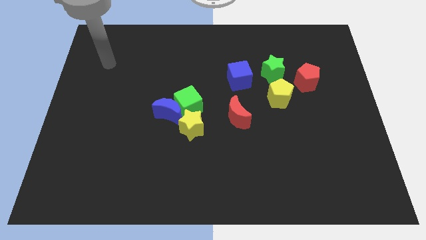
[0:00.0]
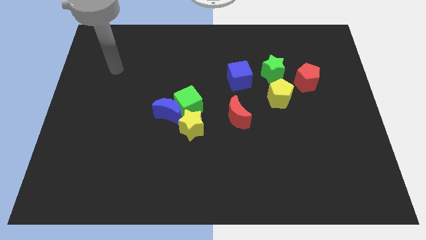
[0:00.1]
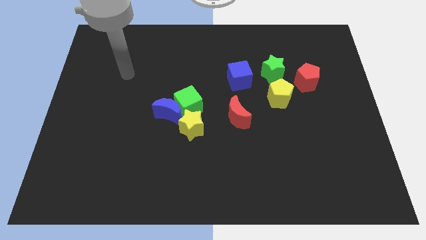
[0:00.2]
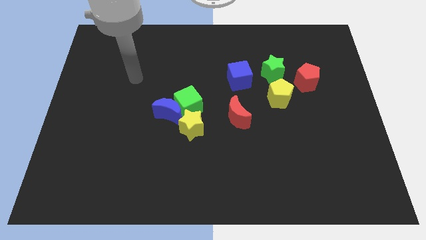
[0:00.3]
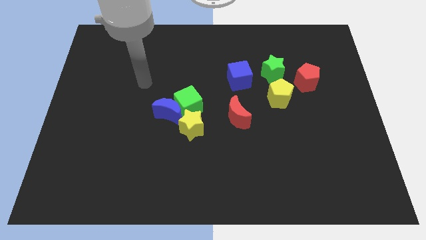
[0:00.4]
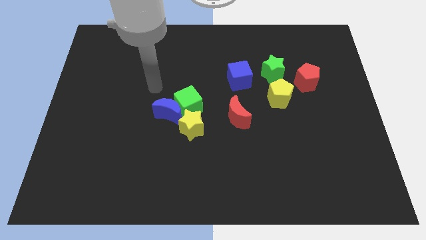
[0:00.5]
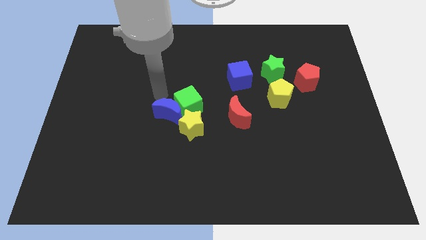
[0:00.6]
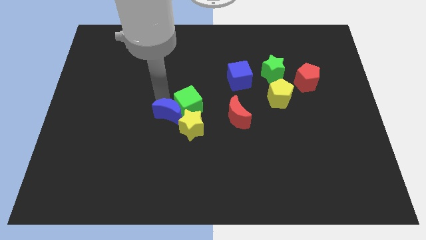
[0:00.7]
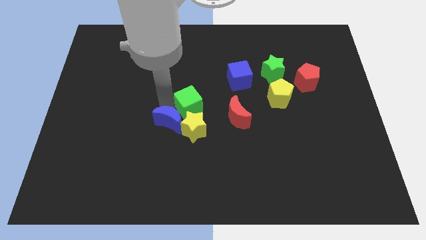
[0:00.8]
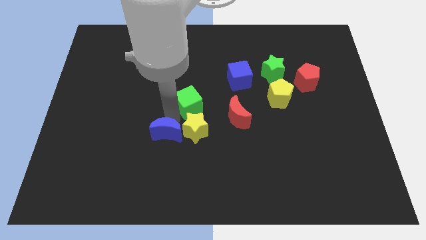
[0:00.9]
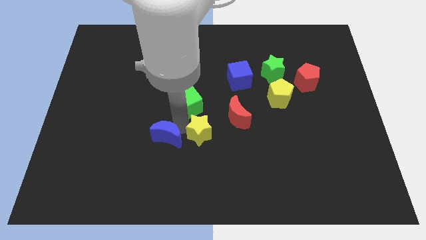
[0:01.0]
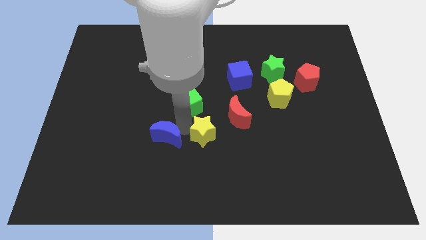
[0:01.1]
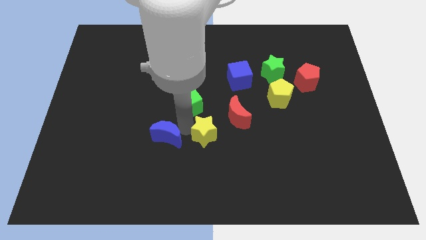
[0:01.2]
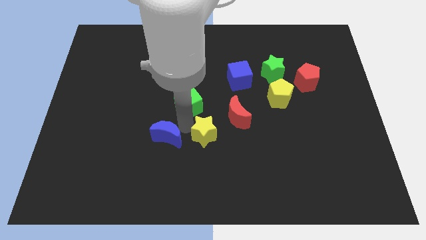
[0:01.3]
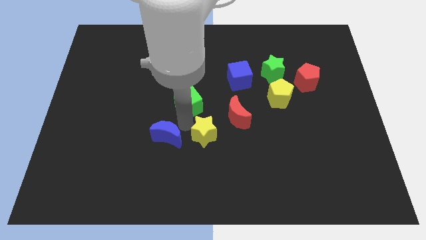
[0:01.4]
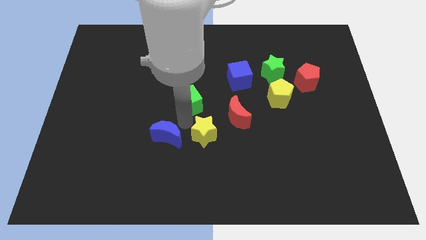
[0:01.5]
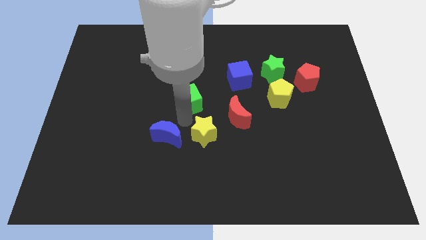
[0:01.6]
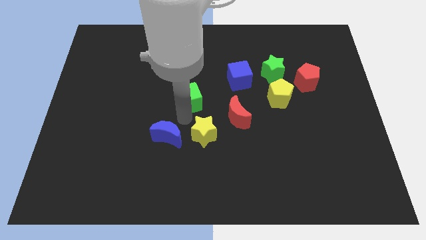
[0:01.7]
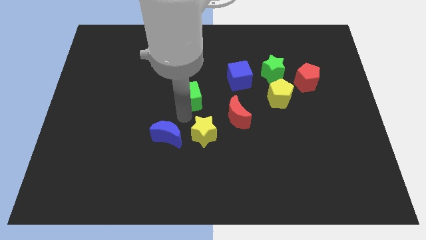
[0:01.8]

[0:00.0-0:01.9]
separate the green cube from the blue moon and yellow star

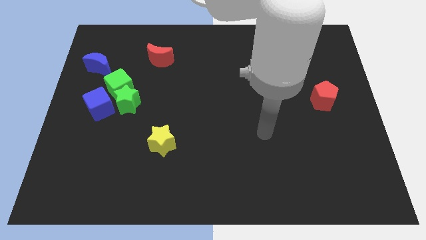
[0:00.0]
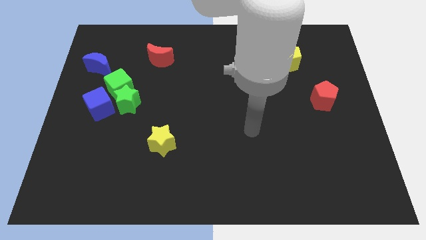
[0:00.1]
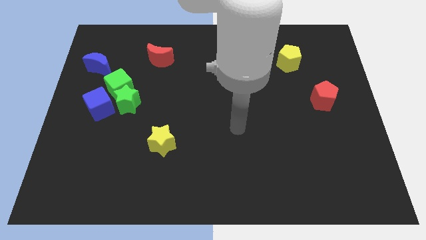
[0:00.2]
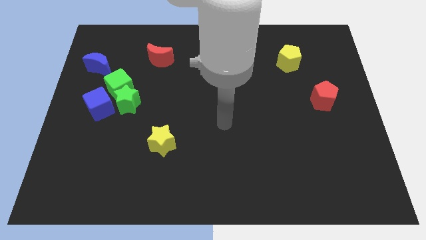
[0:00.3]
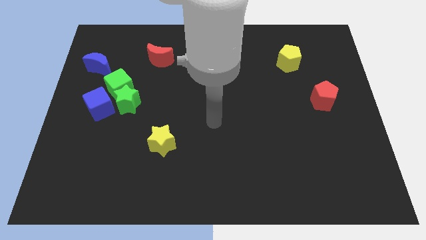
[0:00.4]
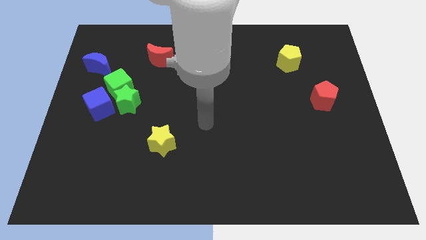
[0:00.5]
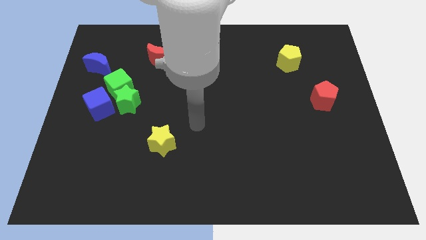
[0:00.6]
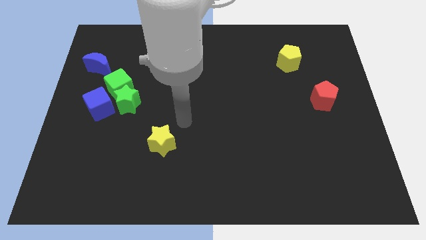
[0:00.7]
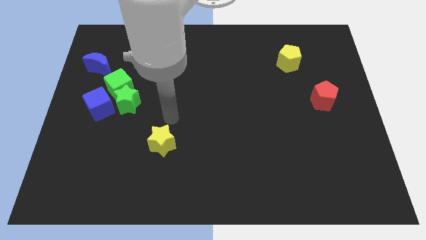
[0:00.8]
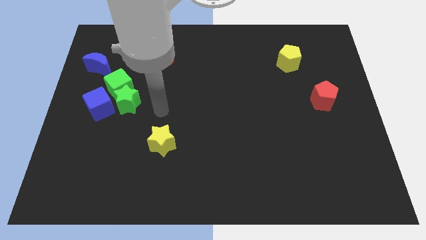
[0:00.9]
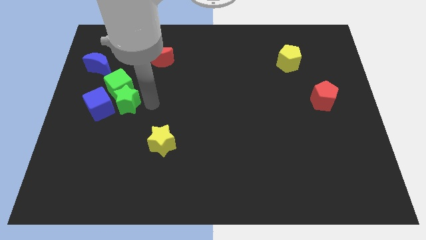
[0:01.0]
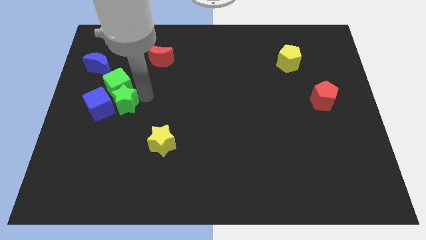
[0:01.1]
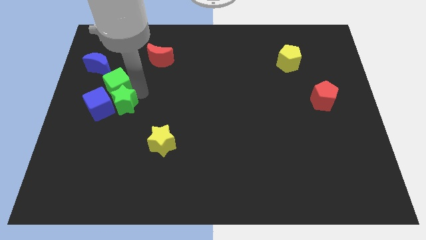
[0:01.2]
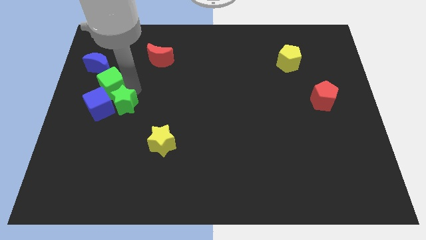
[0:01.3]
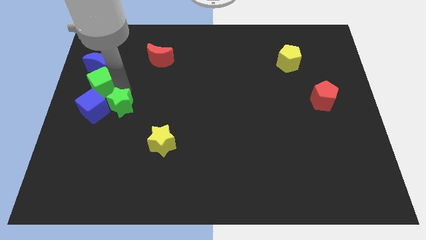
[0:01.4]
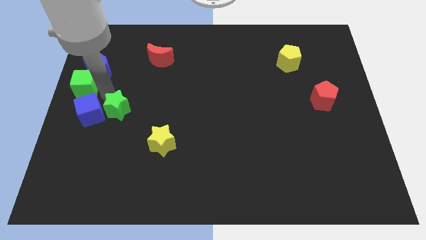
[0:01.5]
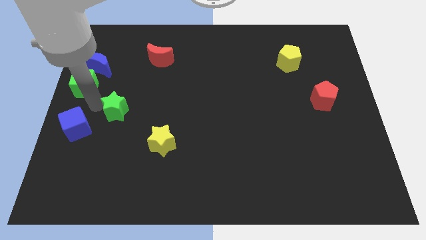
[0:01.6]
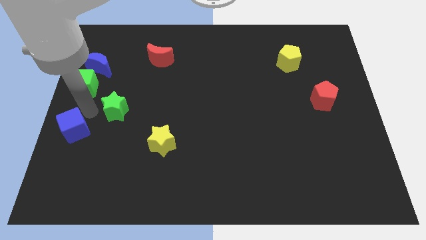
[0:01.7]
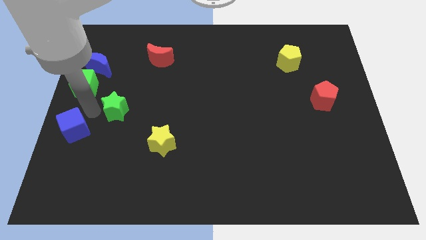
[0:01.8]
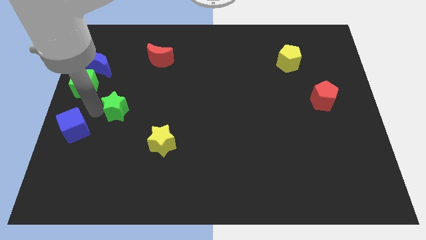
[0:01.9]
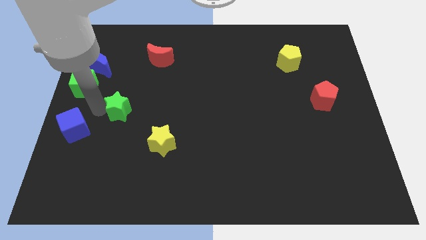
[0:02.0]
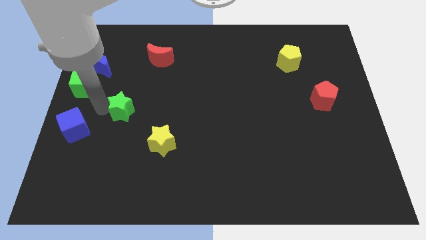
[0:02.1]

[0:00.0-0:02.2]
pull the green star apart from the green cube and blue cube

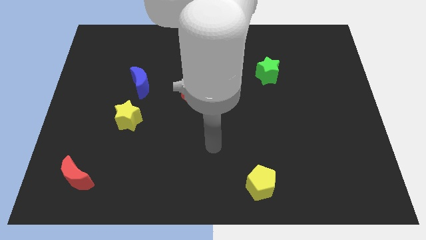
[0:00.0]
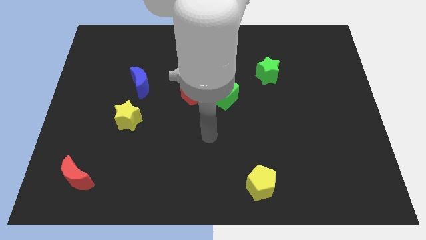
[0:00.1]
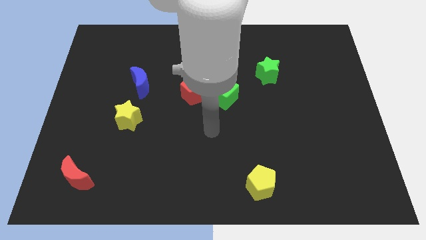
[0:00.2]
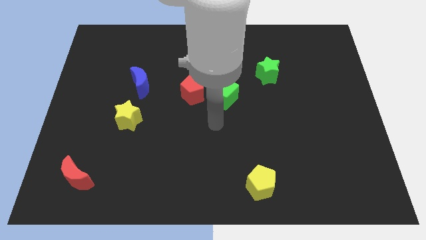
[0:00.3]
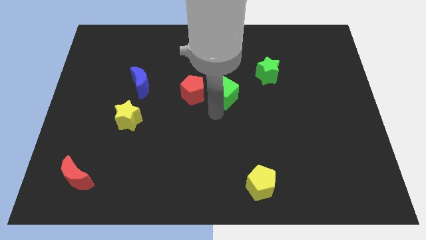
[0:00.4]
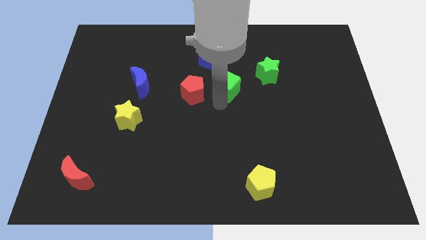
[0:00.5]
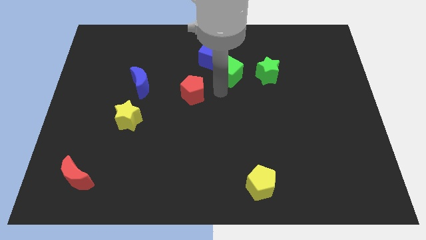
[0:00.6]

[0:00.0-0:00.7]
move the red pentagon away from the green cube

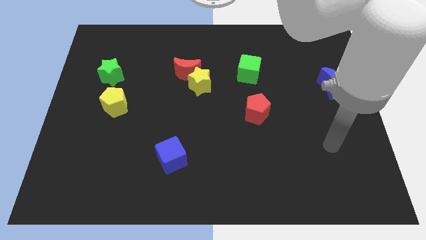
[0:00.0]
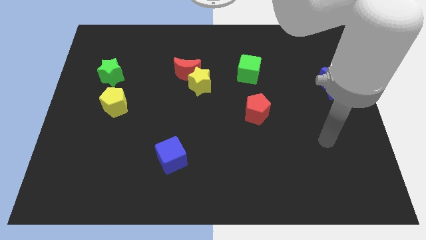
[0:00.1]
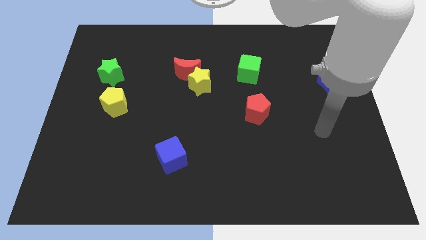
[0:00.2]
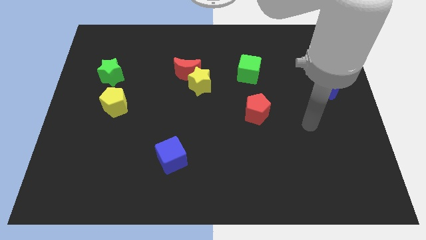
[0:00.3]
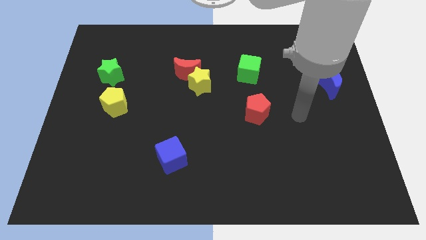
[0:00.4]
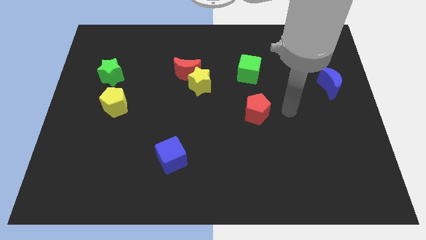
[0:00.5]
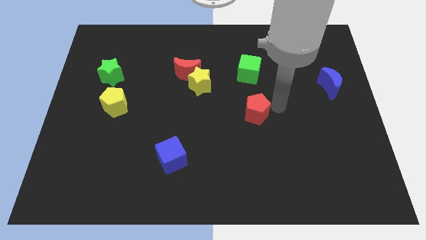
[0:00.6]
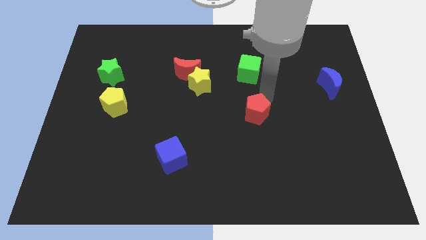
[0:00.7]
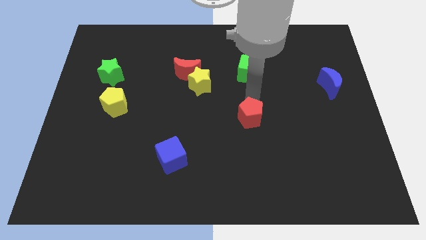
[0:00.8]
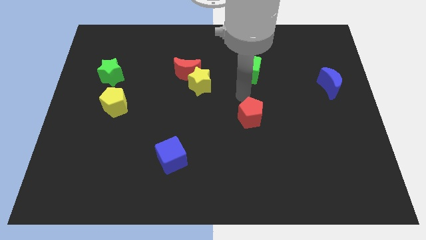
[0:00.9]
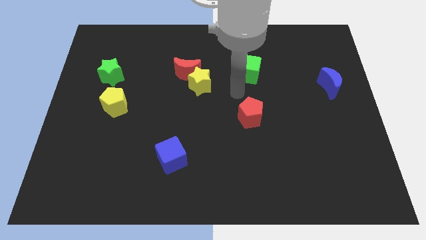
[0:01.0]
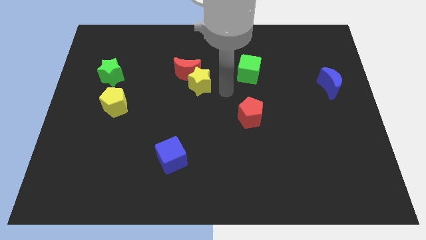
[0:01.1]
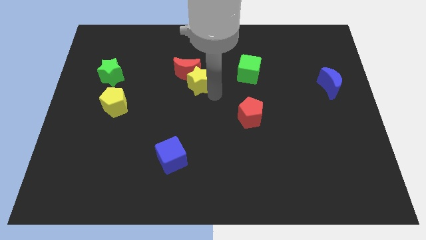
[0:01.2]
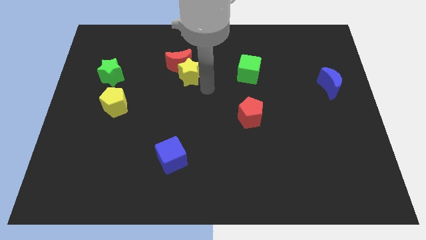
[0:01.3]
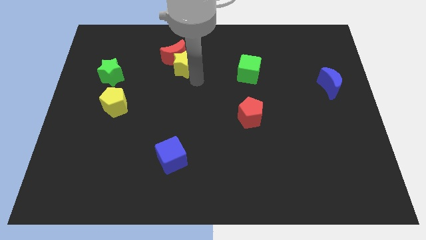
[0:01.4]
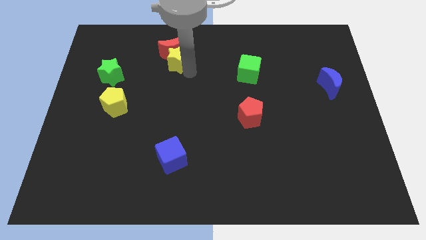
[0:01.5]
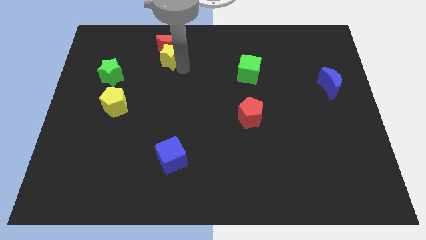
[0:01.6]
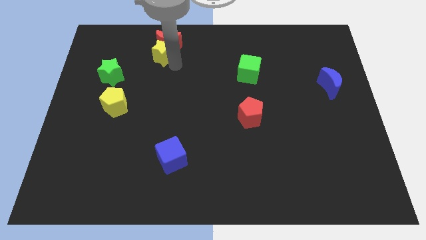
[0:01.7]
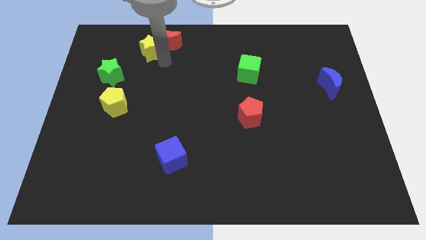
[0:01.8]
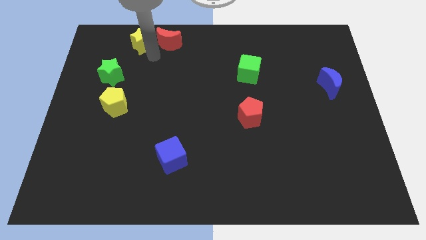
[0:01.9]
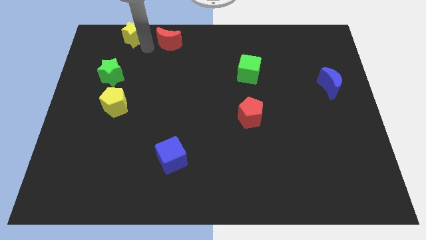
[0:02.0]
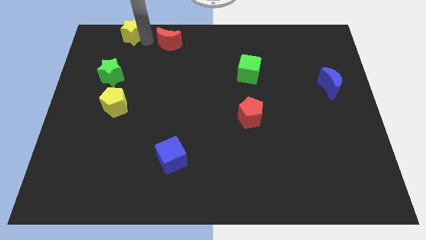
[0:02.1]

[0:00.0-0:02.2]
move the red moon away from the yellow star

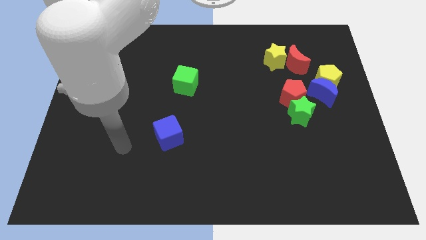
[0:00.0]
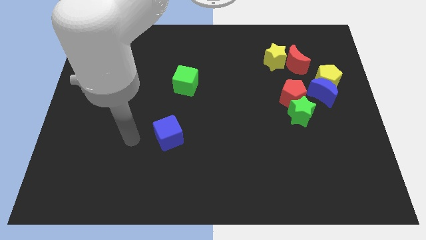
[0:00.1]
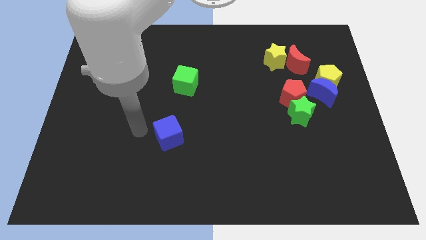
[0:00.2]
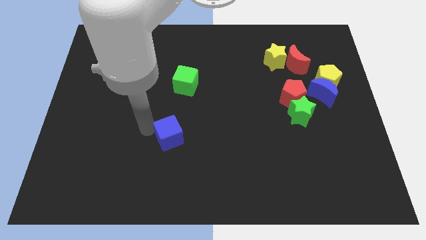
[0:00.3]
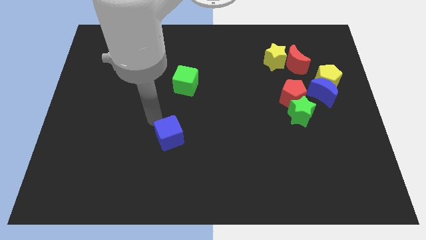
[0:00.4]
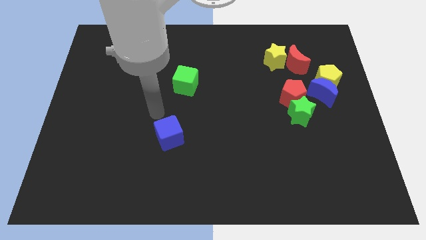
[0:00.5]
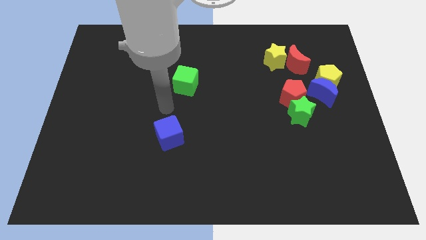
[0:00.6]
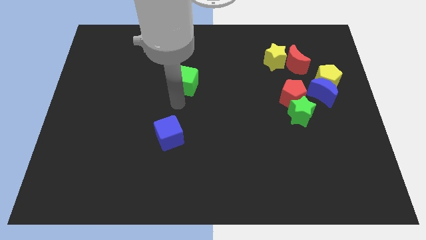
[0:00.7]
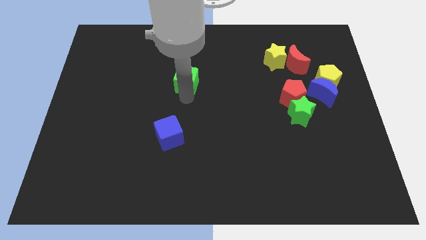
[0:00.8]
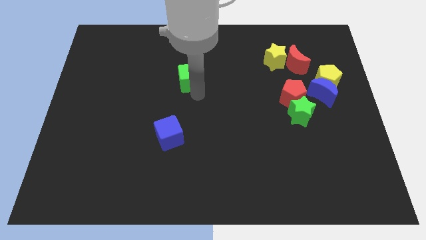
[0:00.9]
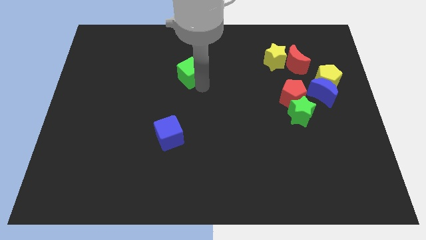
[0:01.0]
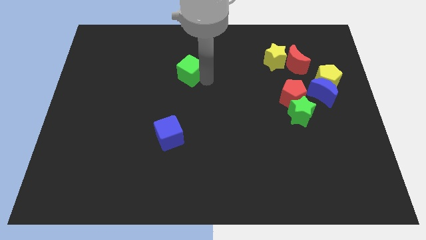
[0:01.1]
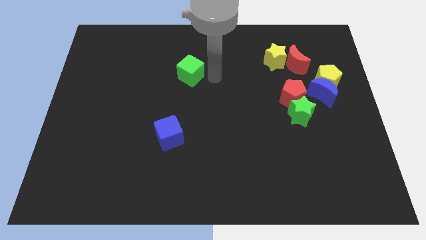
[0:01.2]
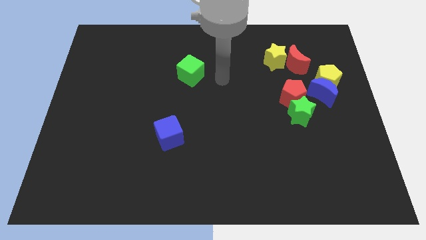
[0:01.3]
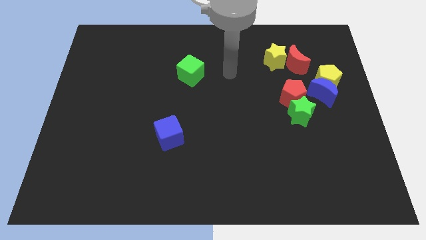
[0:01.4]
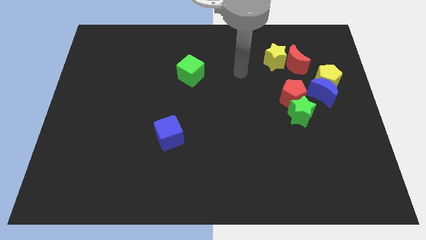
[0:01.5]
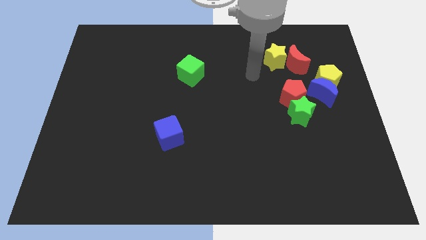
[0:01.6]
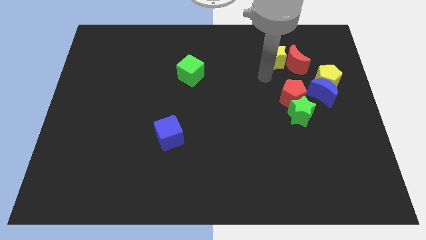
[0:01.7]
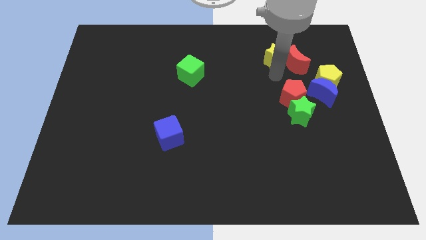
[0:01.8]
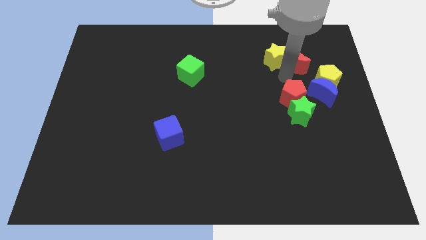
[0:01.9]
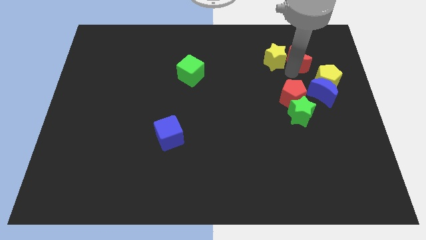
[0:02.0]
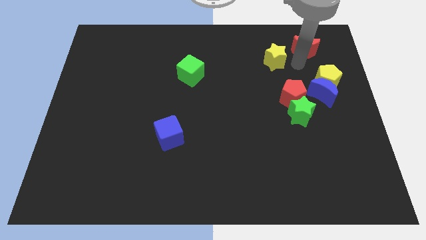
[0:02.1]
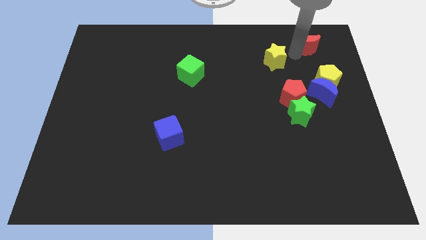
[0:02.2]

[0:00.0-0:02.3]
pull the yellow star apart from the red moon
